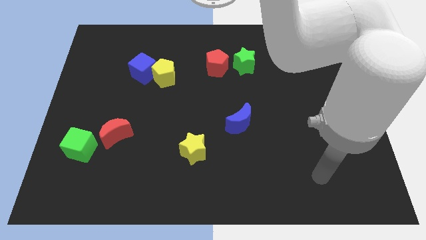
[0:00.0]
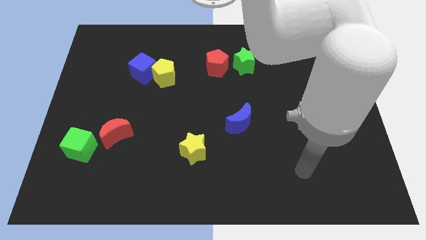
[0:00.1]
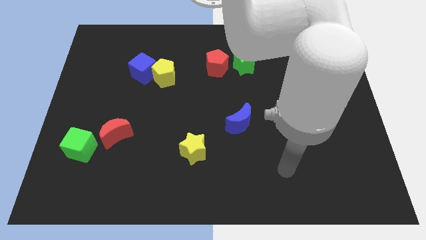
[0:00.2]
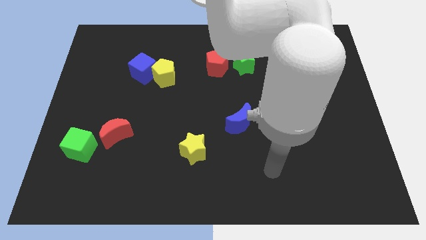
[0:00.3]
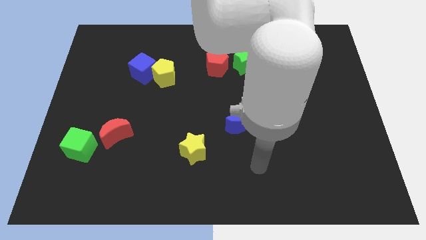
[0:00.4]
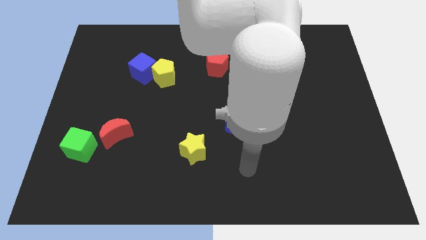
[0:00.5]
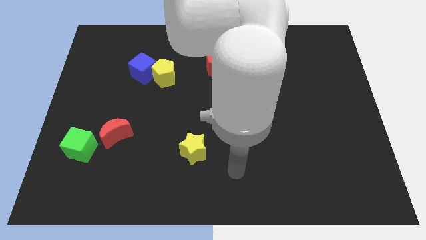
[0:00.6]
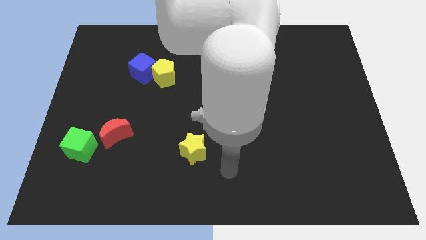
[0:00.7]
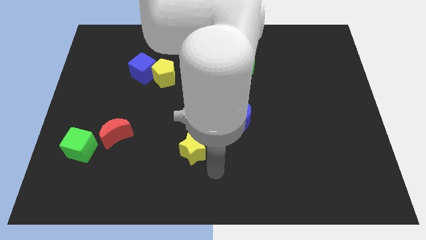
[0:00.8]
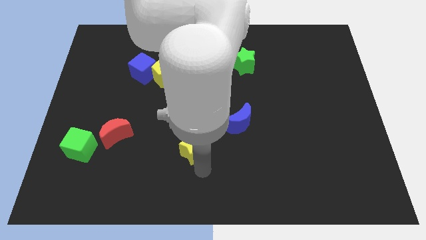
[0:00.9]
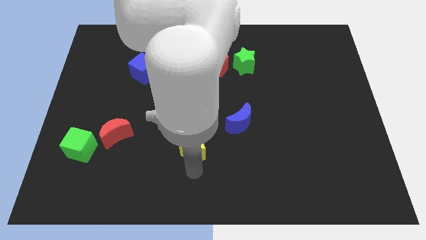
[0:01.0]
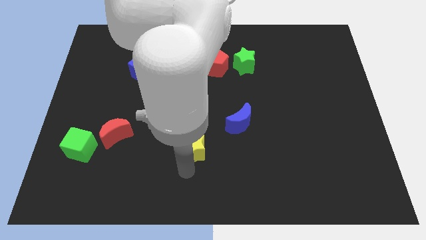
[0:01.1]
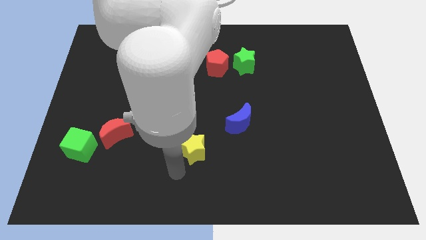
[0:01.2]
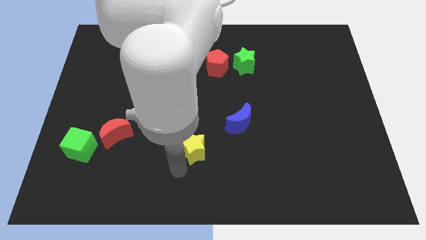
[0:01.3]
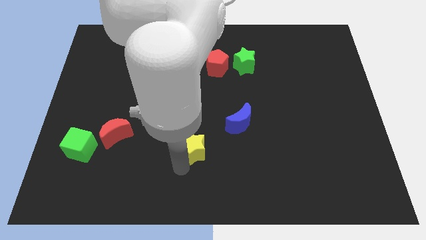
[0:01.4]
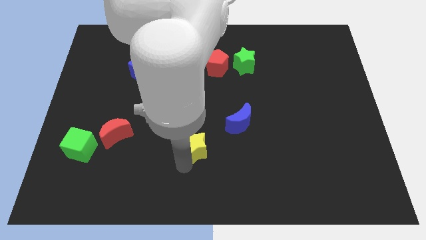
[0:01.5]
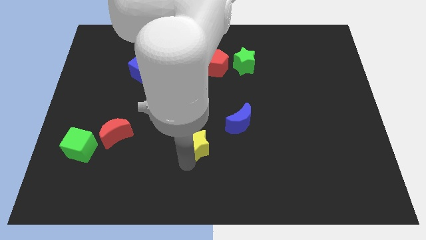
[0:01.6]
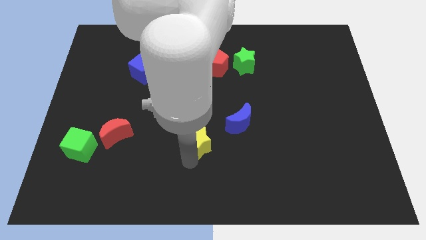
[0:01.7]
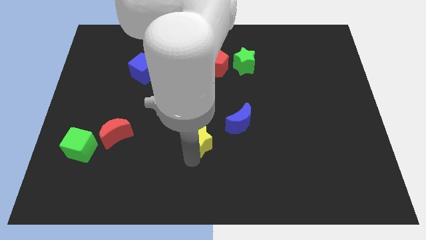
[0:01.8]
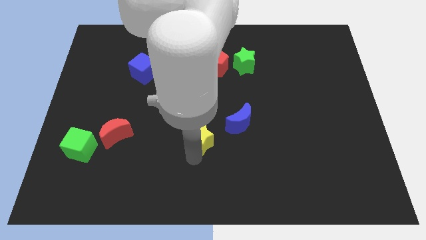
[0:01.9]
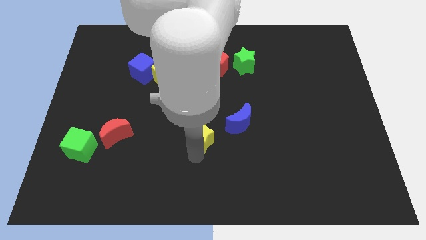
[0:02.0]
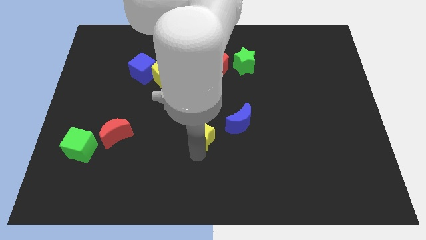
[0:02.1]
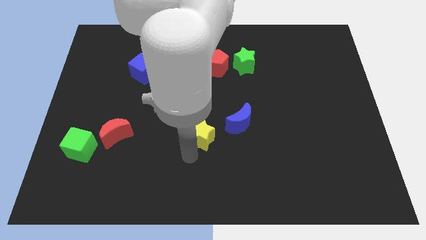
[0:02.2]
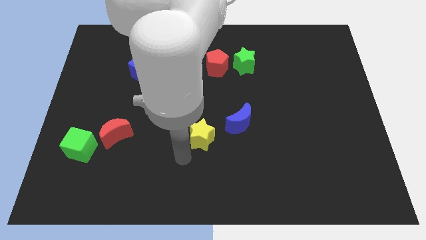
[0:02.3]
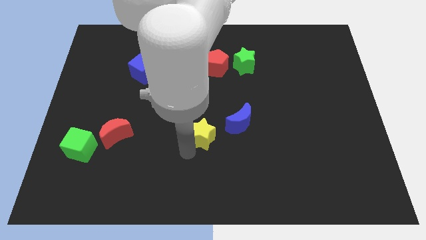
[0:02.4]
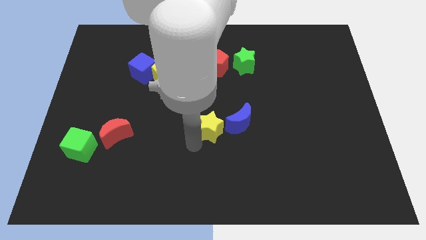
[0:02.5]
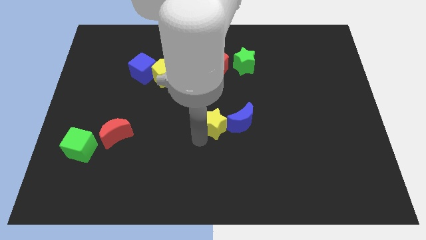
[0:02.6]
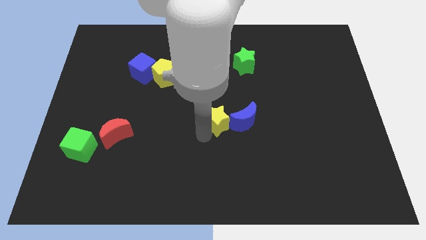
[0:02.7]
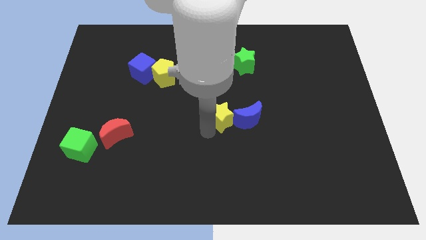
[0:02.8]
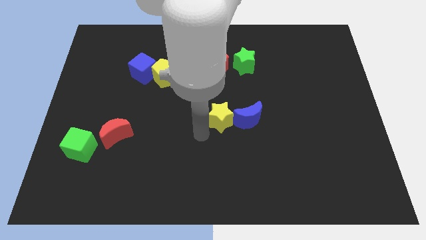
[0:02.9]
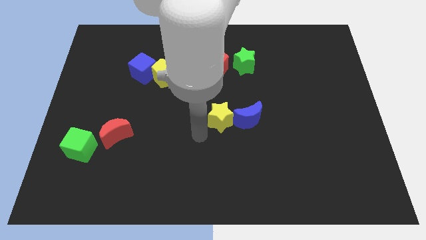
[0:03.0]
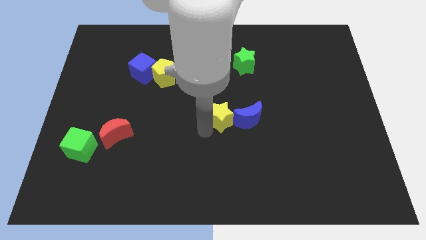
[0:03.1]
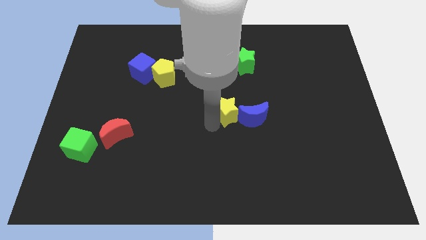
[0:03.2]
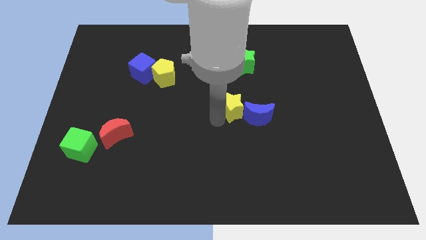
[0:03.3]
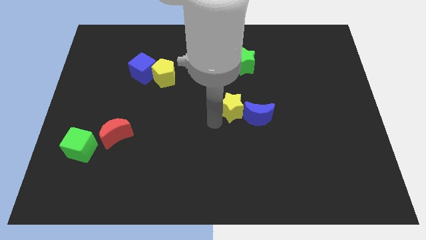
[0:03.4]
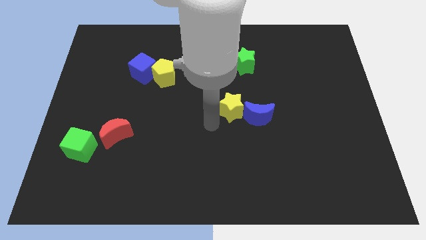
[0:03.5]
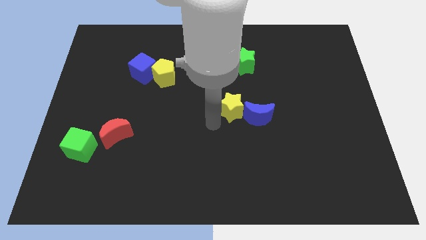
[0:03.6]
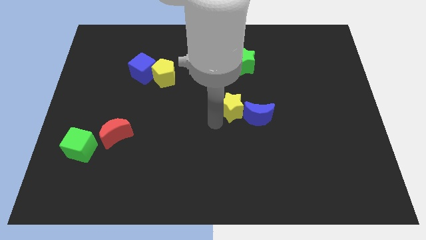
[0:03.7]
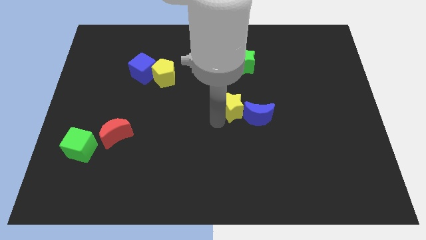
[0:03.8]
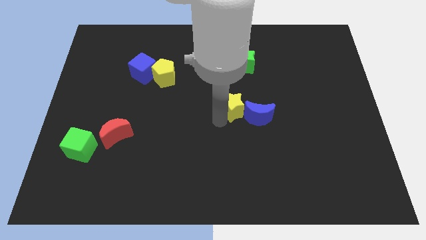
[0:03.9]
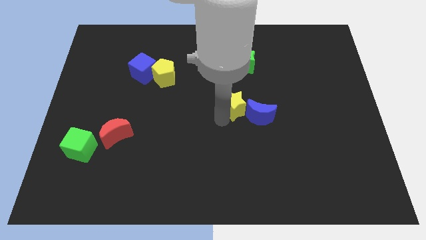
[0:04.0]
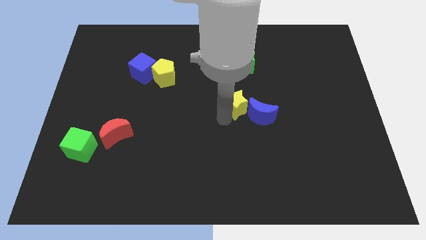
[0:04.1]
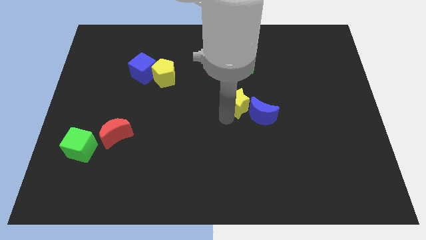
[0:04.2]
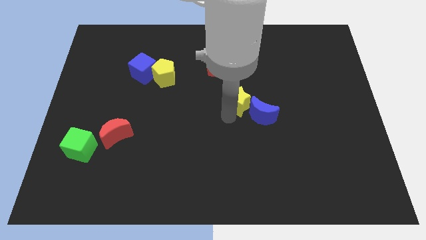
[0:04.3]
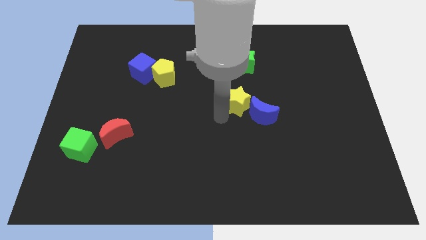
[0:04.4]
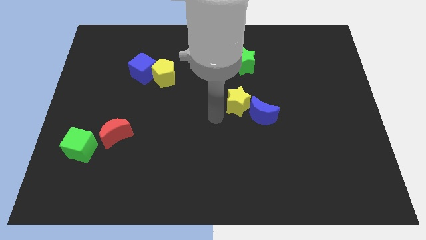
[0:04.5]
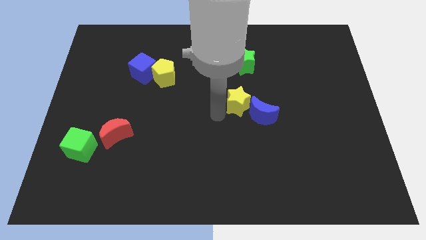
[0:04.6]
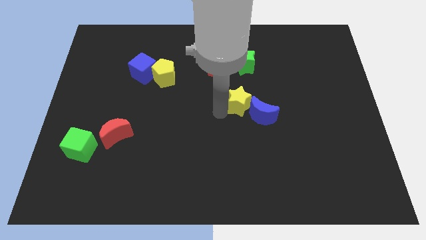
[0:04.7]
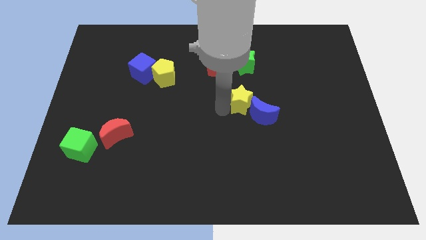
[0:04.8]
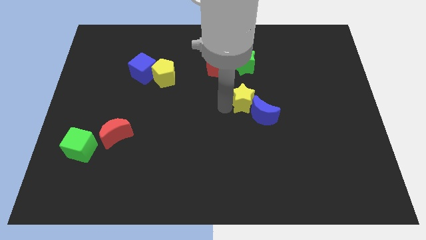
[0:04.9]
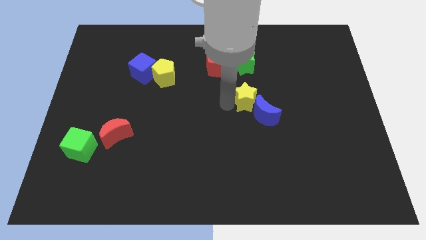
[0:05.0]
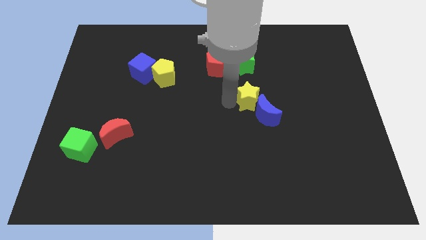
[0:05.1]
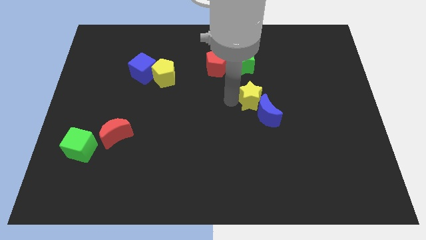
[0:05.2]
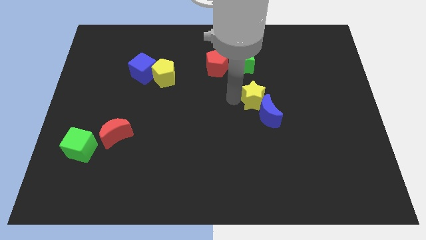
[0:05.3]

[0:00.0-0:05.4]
move the yellow star diagonally upwards and right

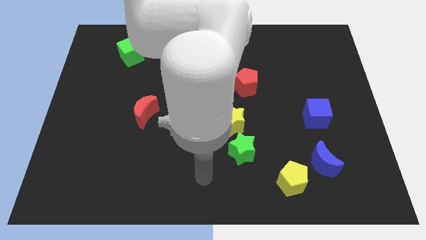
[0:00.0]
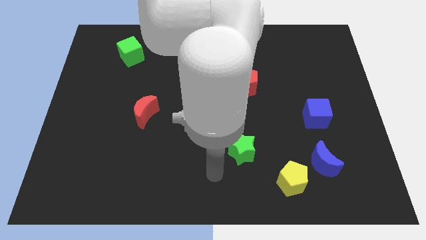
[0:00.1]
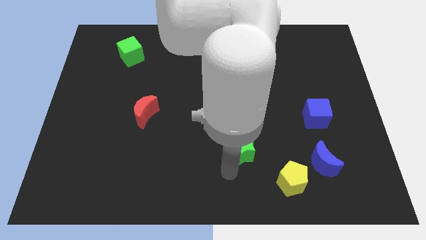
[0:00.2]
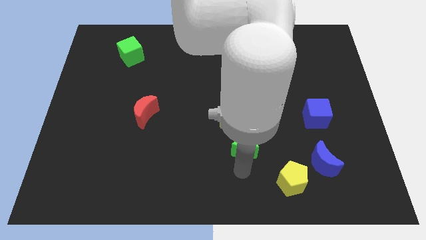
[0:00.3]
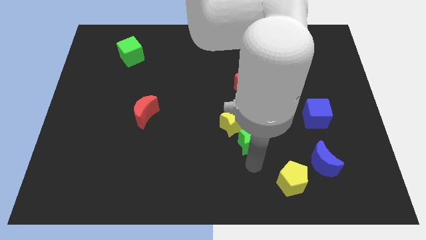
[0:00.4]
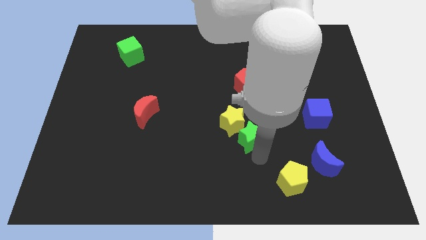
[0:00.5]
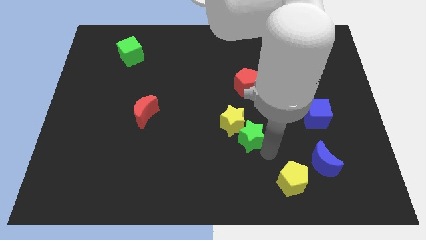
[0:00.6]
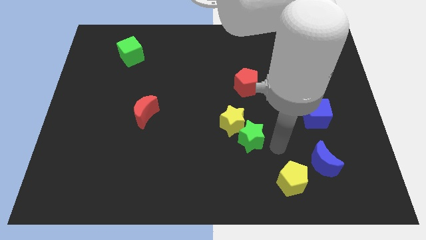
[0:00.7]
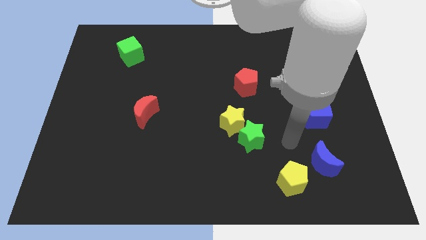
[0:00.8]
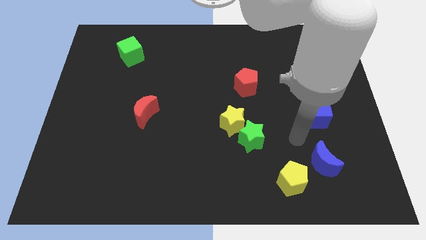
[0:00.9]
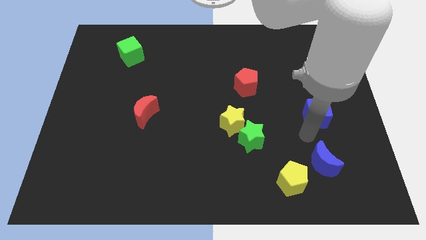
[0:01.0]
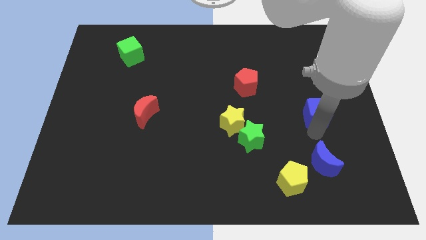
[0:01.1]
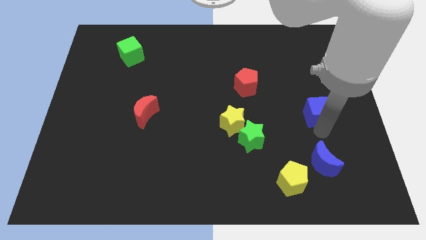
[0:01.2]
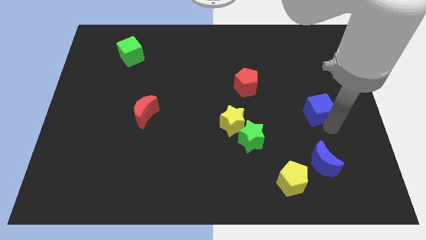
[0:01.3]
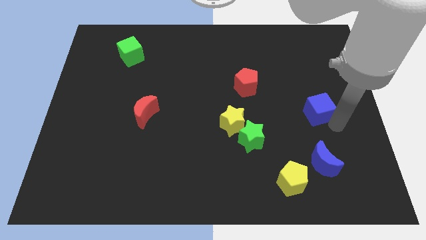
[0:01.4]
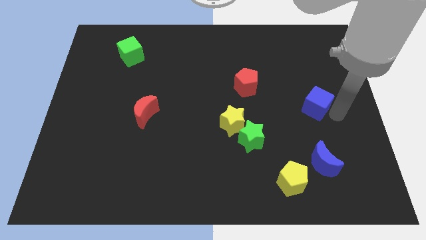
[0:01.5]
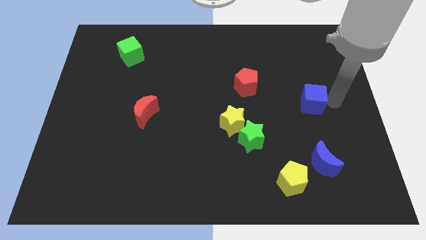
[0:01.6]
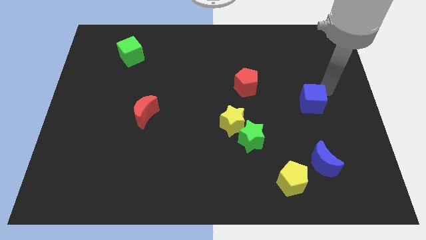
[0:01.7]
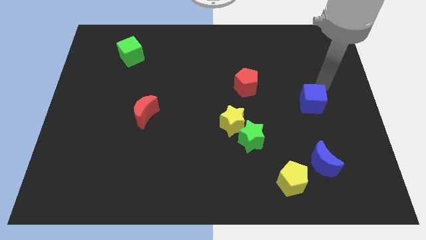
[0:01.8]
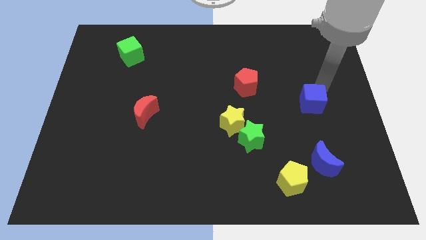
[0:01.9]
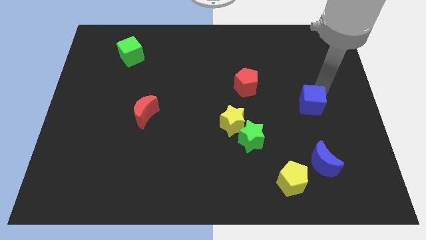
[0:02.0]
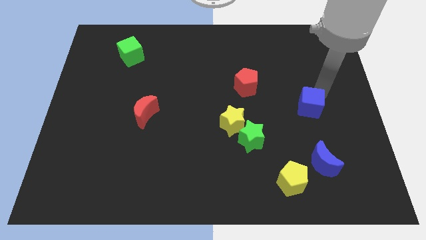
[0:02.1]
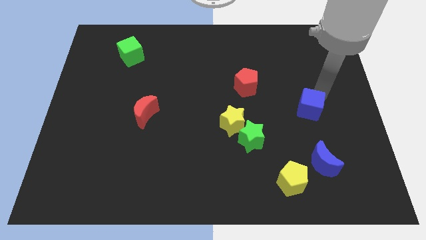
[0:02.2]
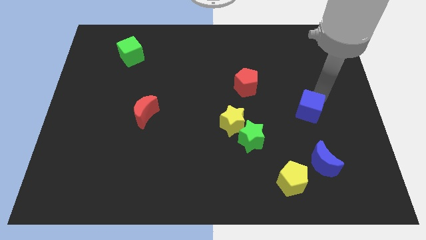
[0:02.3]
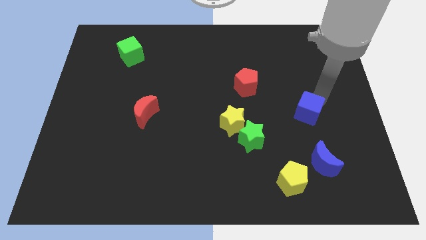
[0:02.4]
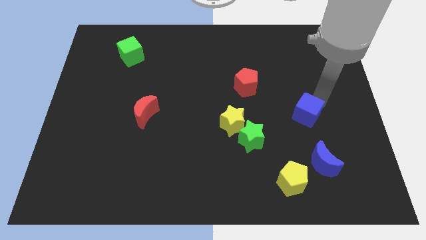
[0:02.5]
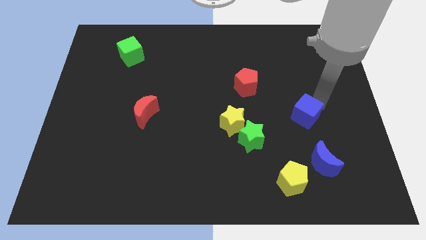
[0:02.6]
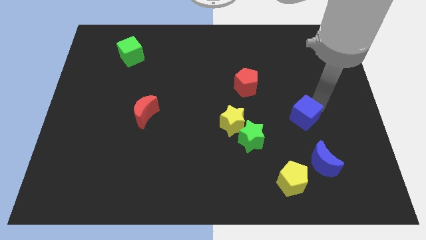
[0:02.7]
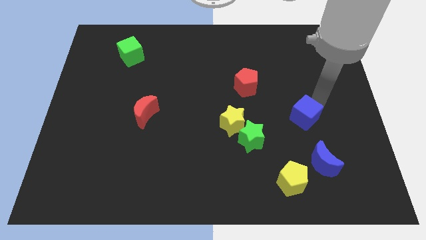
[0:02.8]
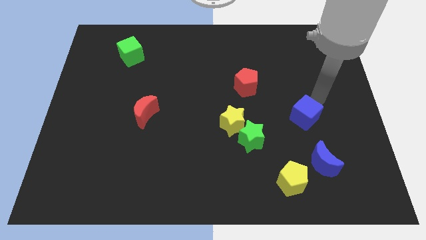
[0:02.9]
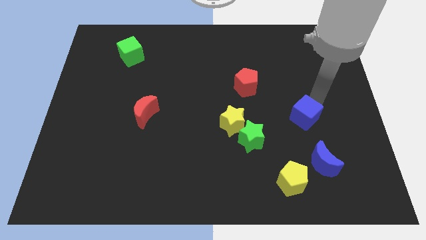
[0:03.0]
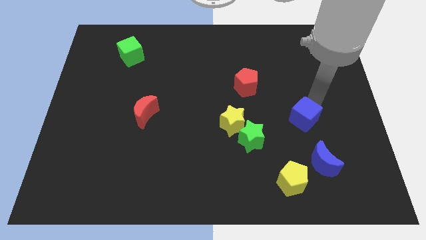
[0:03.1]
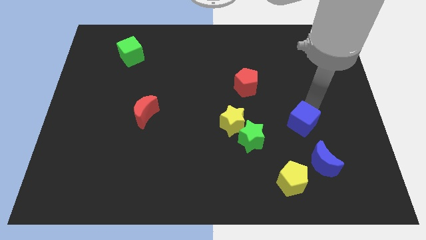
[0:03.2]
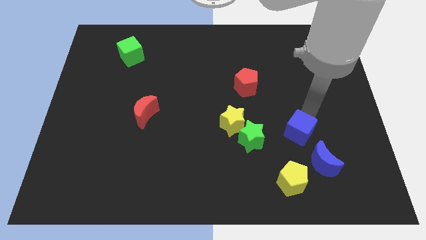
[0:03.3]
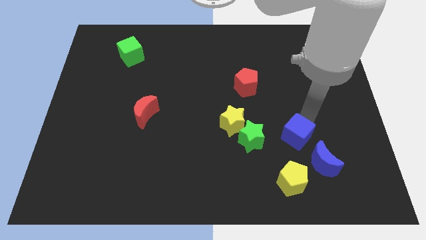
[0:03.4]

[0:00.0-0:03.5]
move the blue cube diagonally downwards and left a bit
